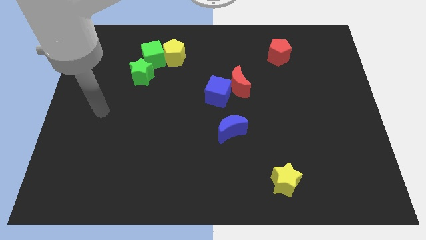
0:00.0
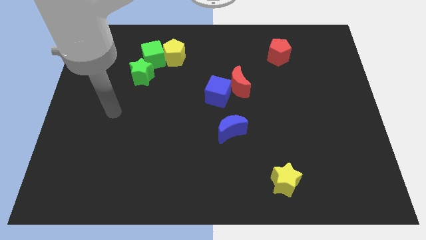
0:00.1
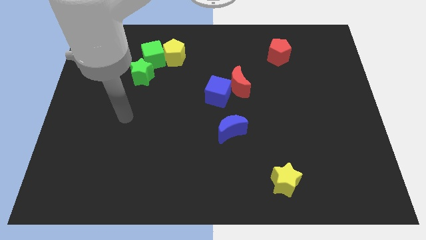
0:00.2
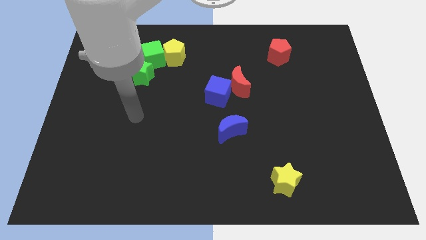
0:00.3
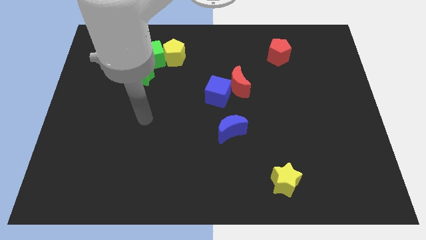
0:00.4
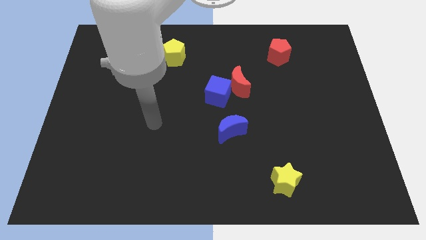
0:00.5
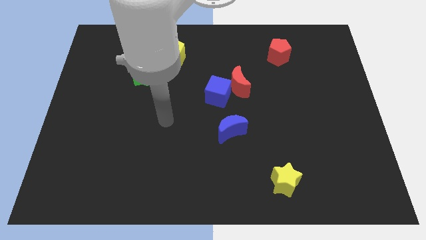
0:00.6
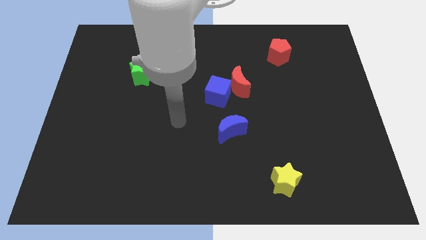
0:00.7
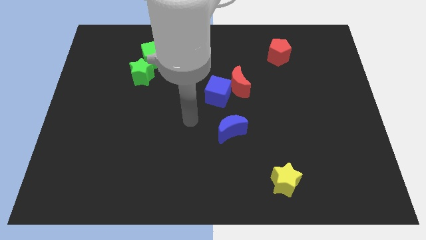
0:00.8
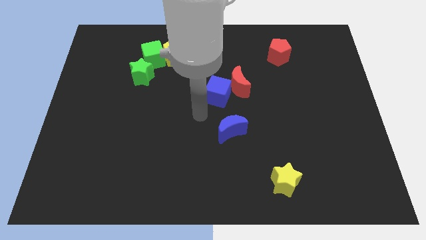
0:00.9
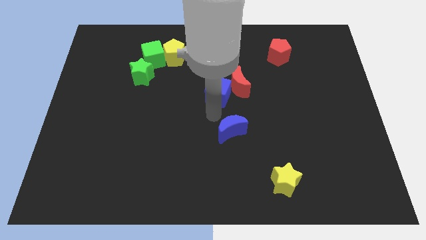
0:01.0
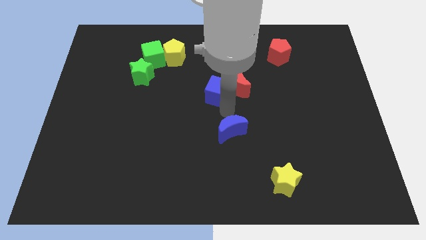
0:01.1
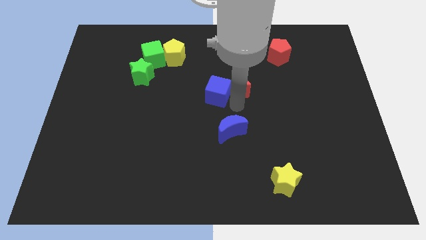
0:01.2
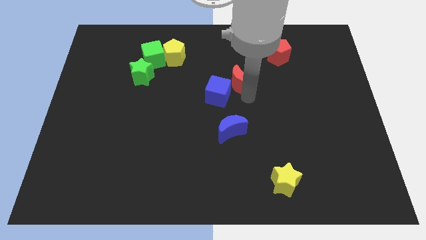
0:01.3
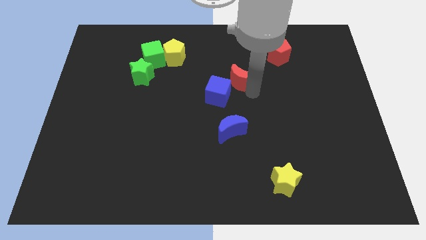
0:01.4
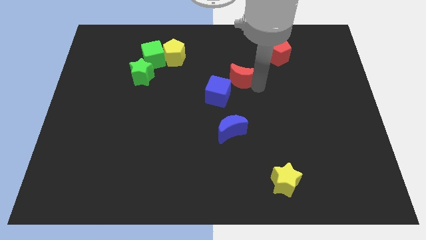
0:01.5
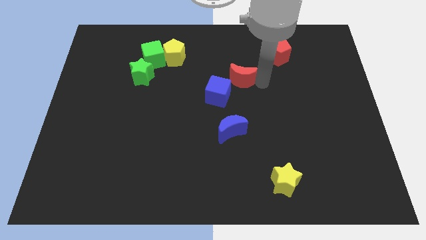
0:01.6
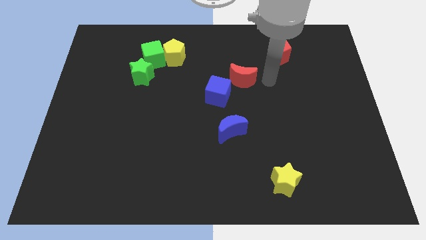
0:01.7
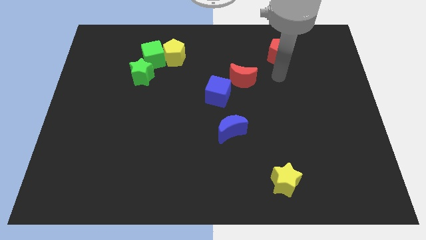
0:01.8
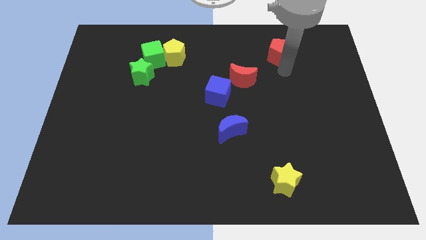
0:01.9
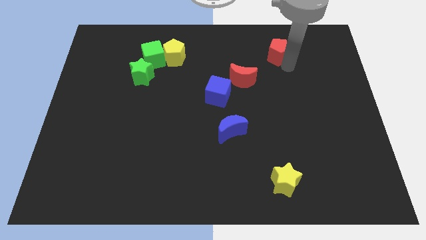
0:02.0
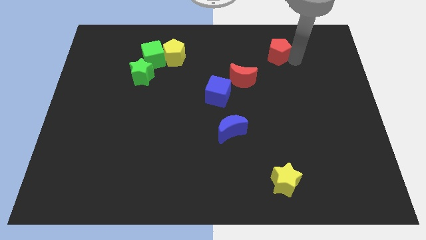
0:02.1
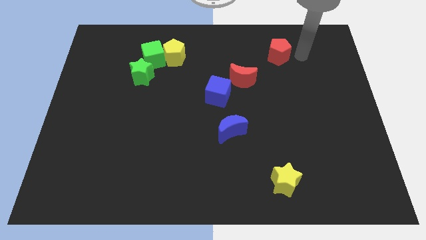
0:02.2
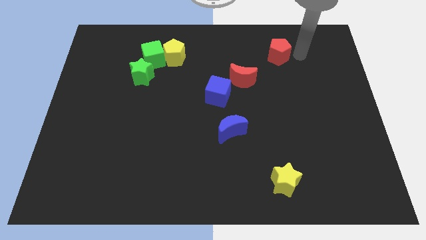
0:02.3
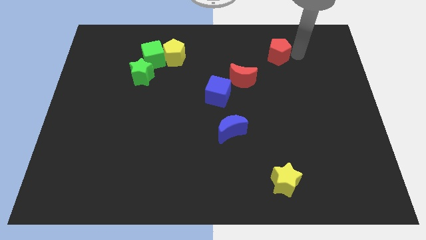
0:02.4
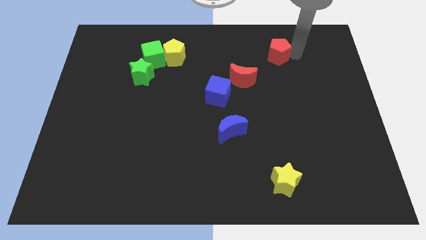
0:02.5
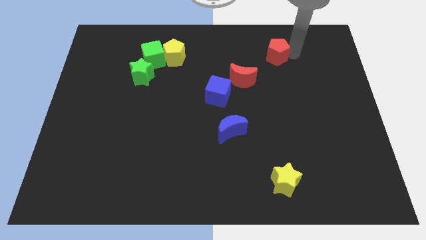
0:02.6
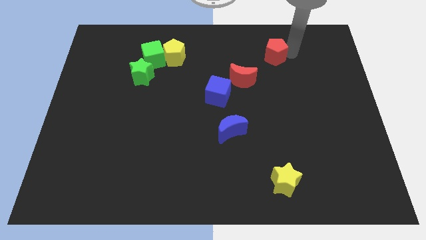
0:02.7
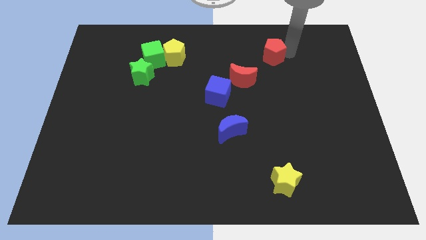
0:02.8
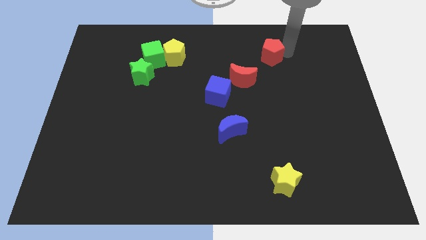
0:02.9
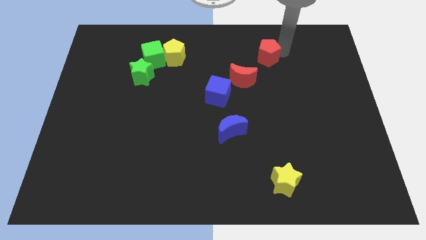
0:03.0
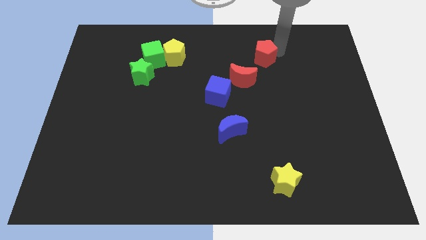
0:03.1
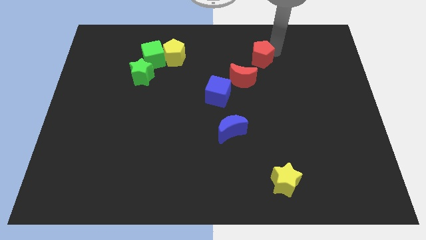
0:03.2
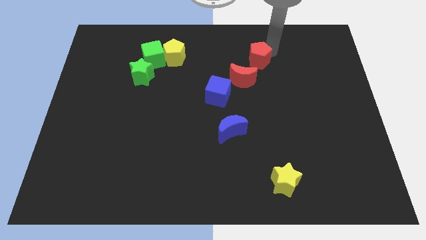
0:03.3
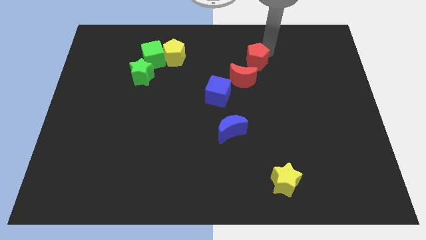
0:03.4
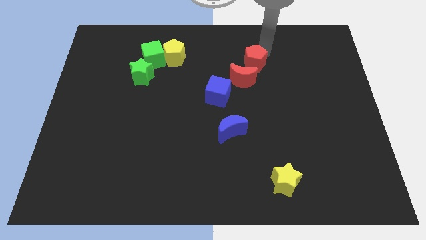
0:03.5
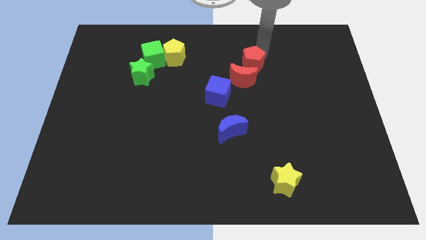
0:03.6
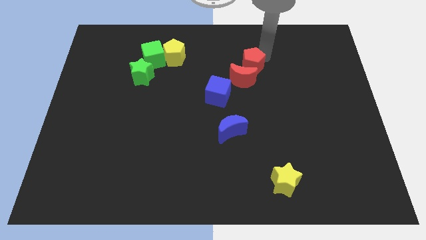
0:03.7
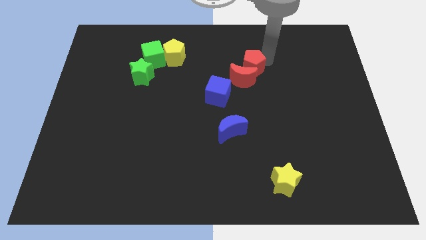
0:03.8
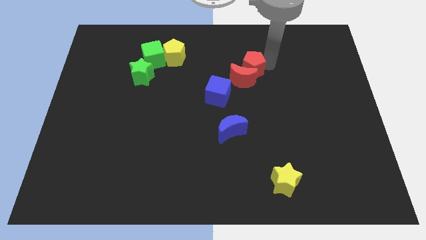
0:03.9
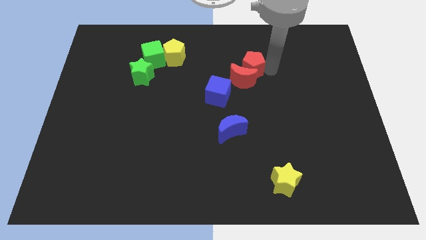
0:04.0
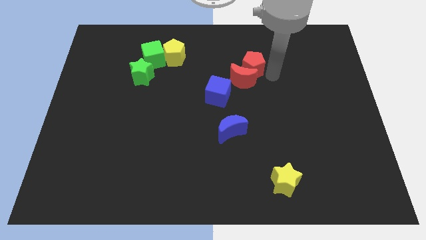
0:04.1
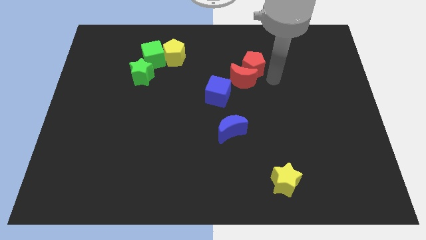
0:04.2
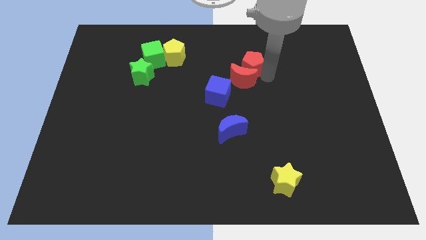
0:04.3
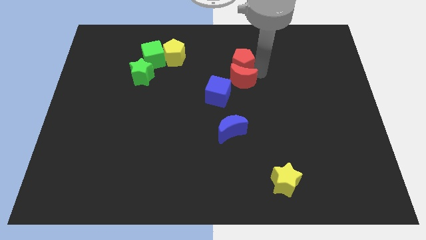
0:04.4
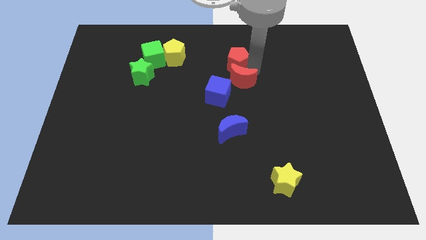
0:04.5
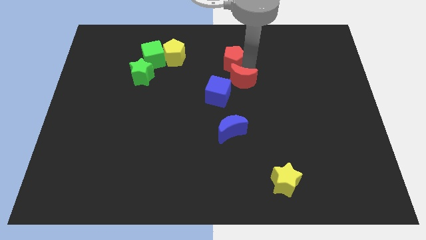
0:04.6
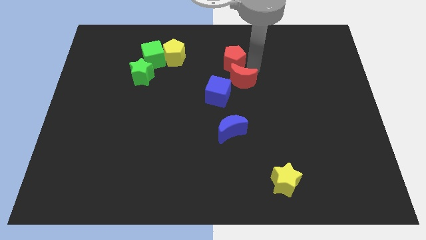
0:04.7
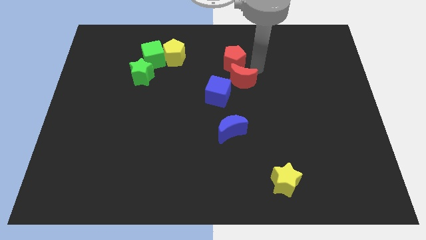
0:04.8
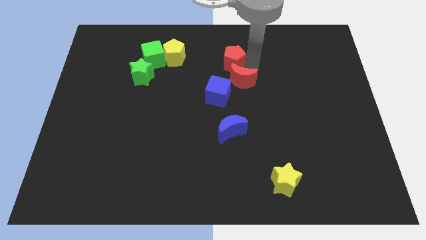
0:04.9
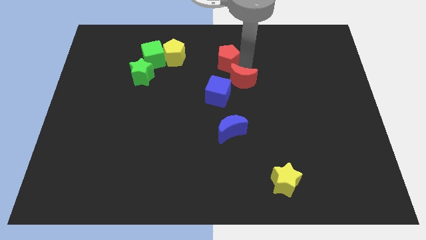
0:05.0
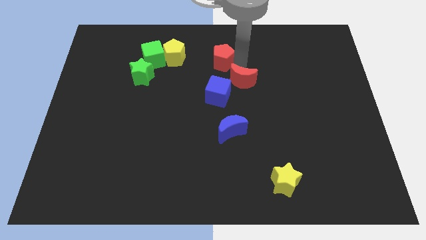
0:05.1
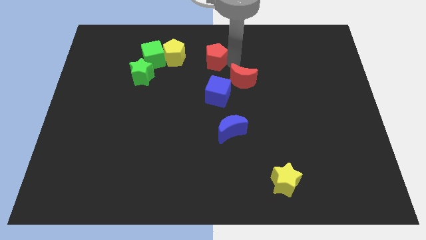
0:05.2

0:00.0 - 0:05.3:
slide the red pentagon to the right of the green cube

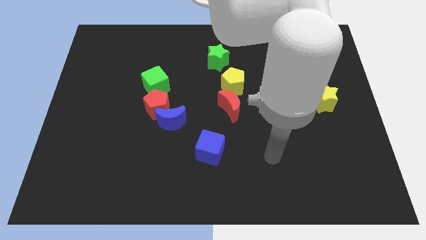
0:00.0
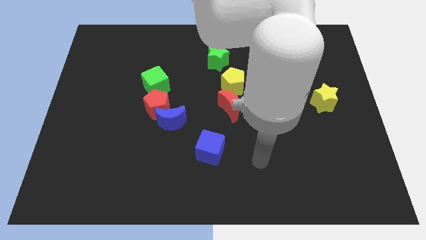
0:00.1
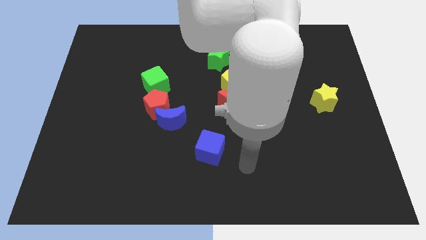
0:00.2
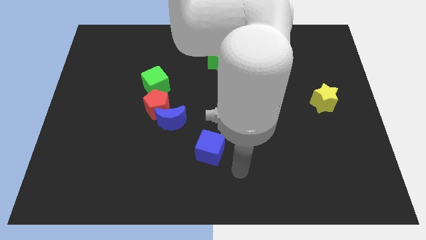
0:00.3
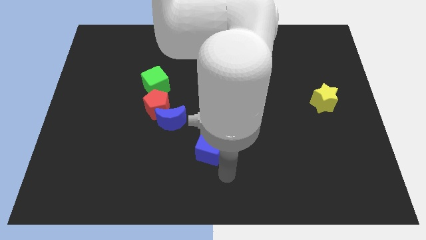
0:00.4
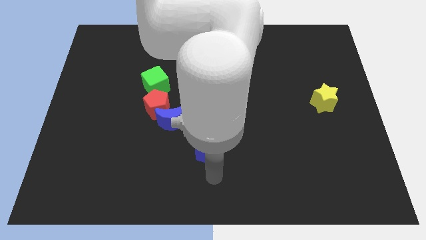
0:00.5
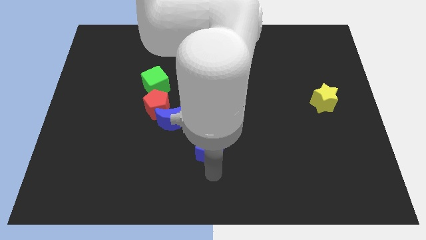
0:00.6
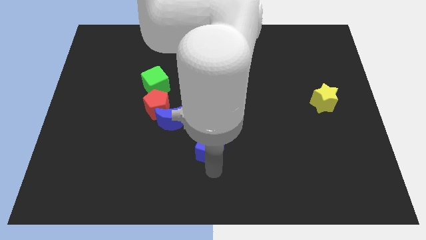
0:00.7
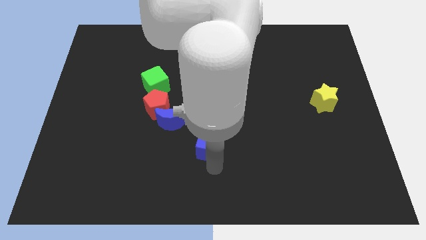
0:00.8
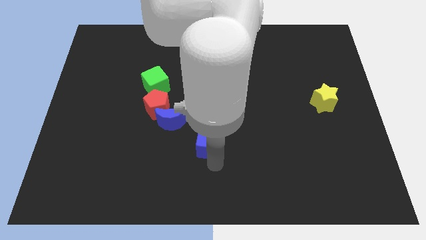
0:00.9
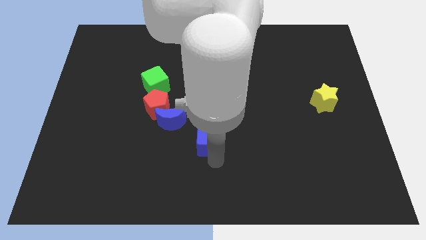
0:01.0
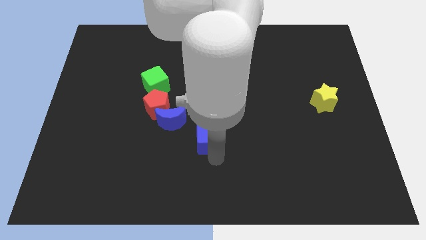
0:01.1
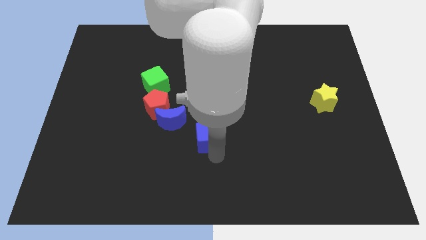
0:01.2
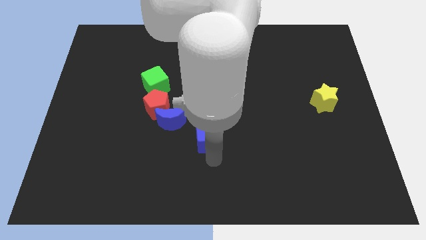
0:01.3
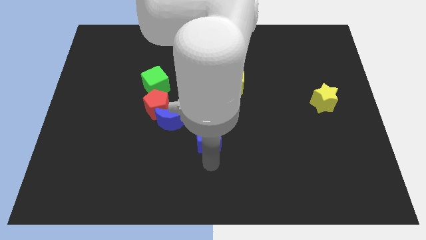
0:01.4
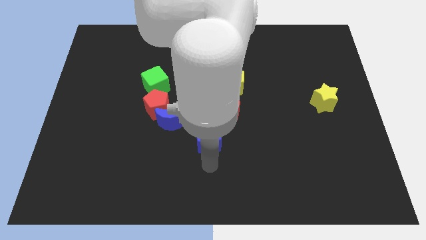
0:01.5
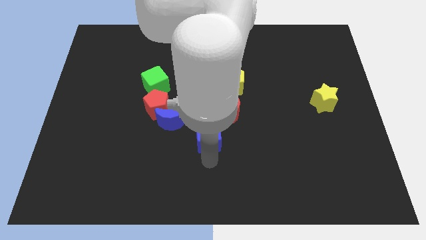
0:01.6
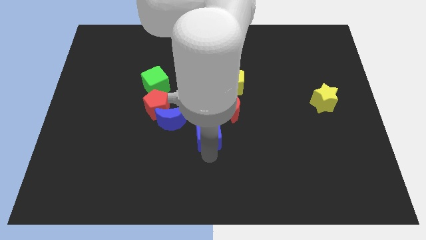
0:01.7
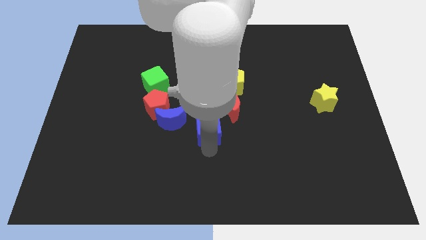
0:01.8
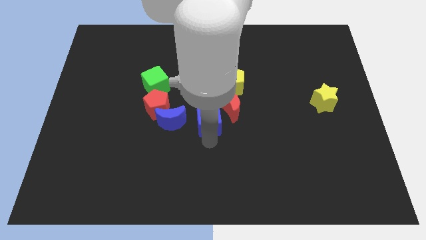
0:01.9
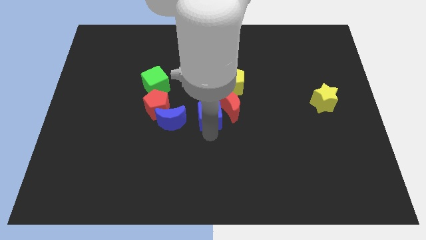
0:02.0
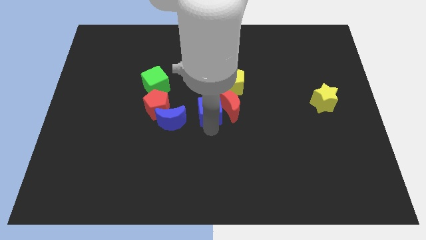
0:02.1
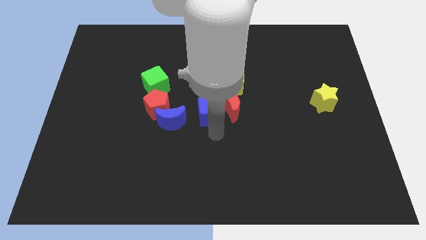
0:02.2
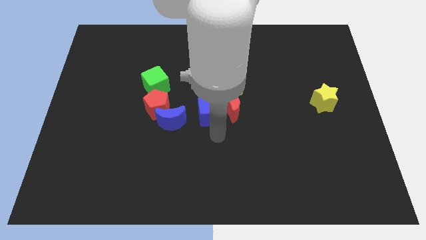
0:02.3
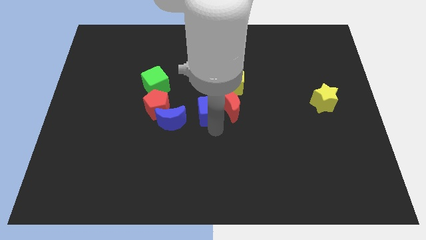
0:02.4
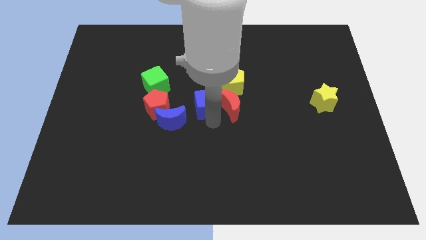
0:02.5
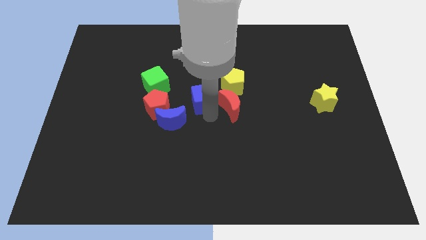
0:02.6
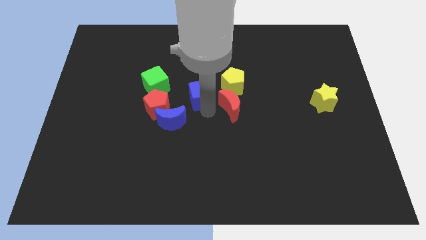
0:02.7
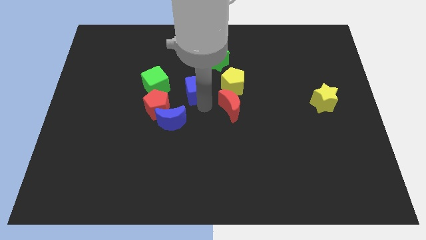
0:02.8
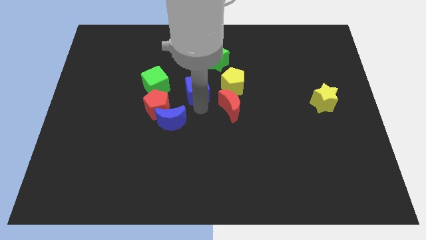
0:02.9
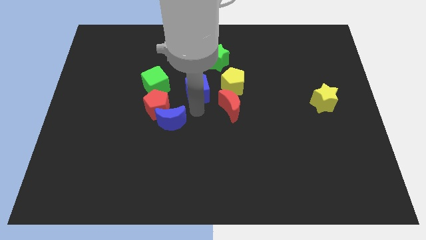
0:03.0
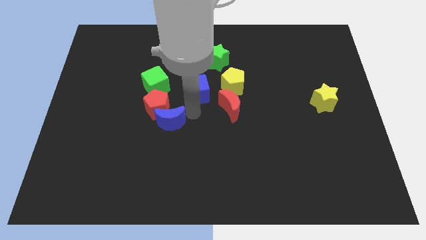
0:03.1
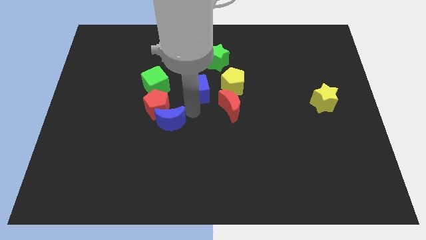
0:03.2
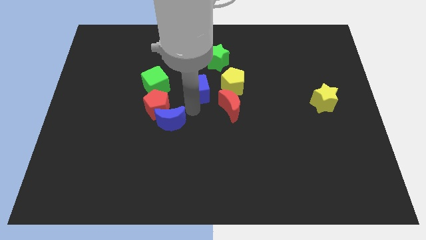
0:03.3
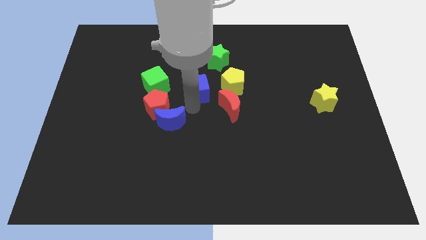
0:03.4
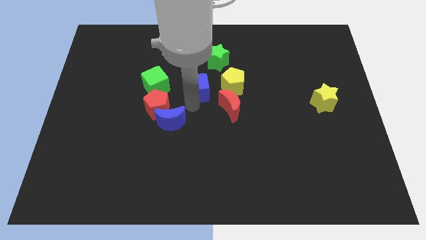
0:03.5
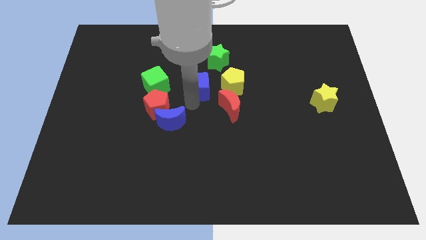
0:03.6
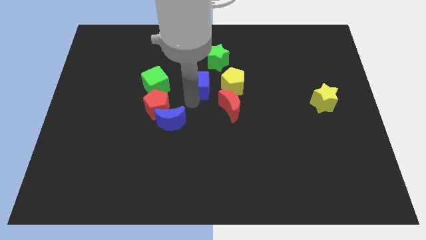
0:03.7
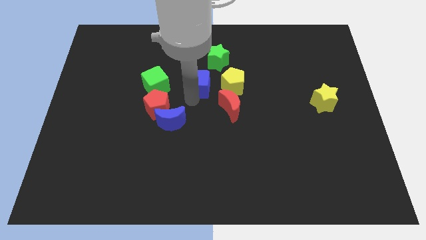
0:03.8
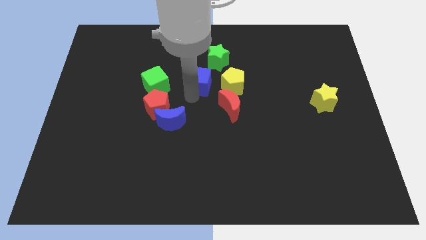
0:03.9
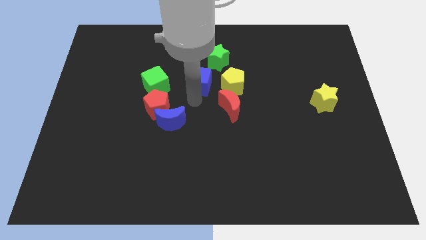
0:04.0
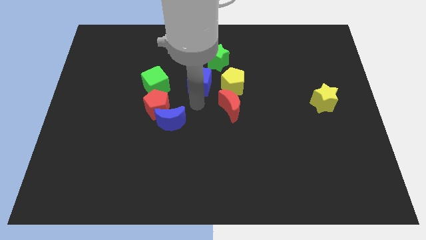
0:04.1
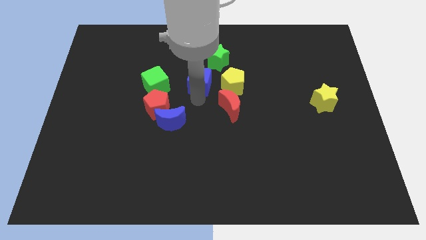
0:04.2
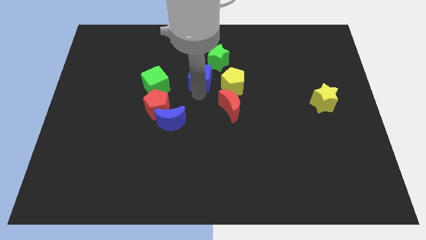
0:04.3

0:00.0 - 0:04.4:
put the blue cube diagonally up and to the left of the yellow pentagon
